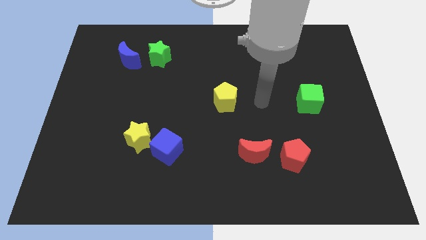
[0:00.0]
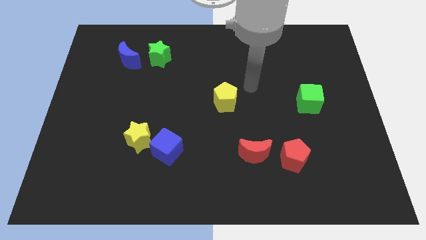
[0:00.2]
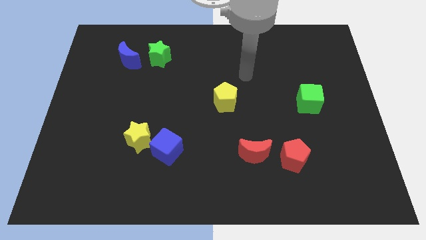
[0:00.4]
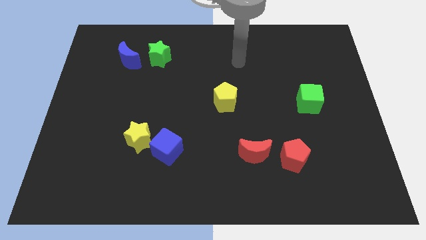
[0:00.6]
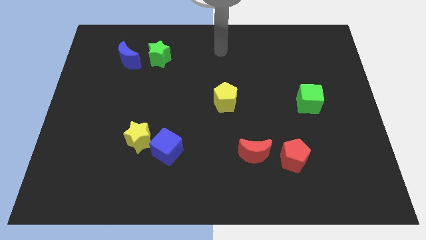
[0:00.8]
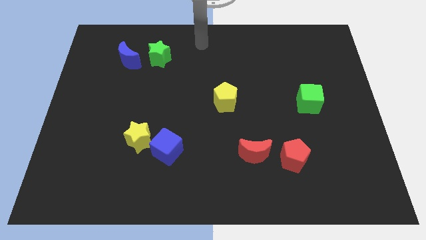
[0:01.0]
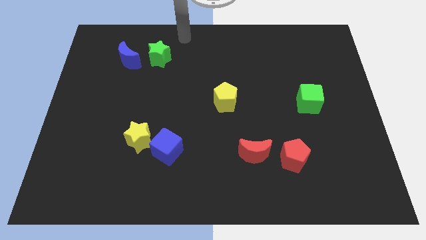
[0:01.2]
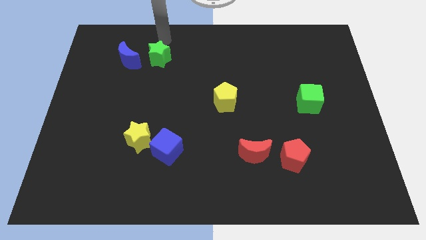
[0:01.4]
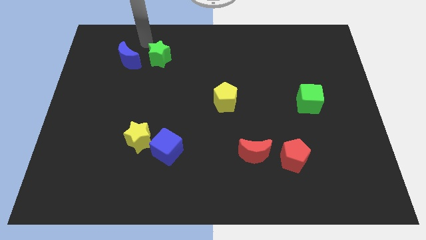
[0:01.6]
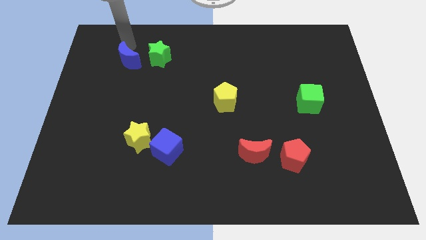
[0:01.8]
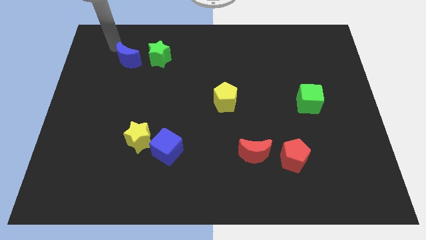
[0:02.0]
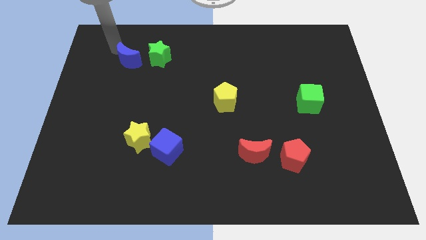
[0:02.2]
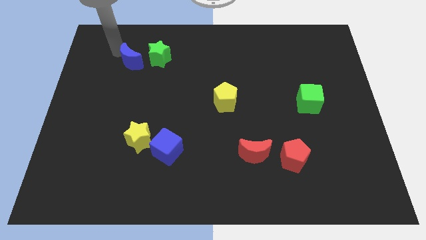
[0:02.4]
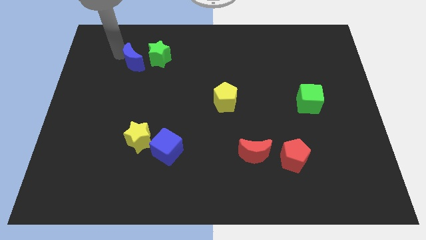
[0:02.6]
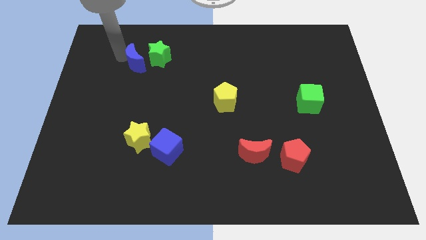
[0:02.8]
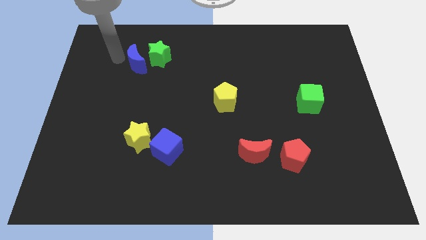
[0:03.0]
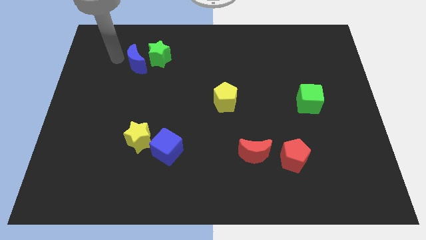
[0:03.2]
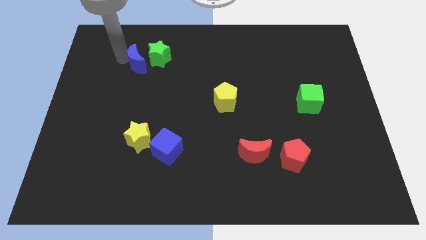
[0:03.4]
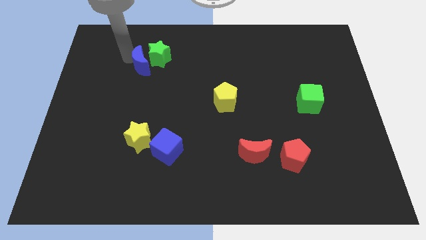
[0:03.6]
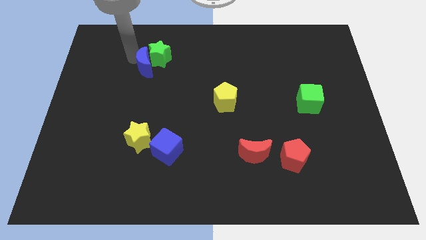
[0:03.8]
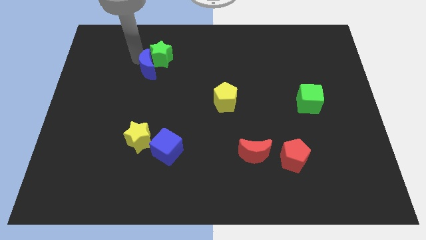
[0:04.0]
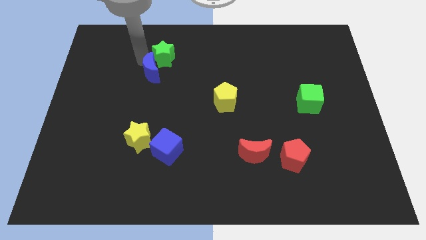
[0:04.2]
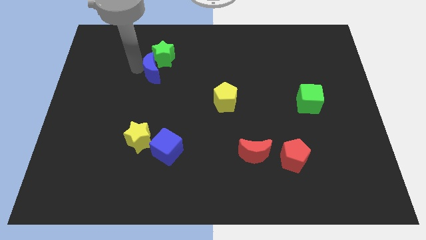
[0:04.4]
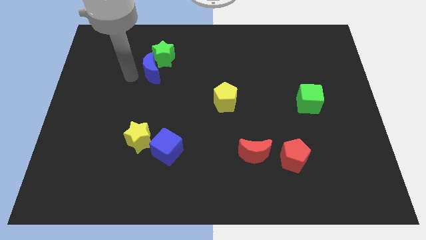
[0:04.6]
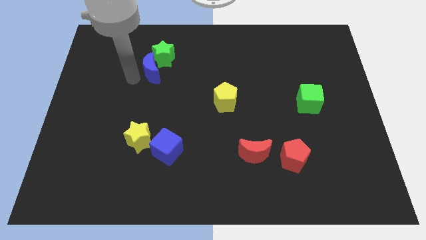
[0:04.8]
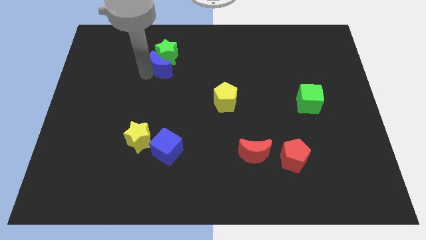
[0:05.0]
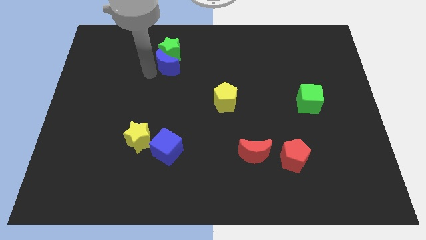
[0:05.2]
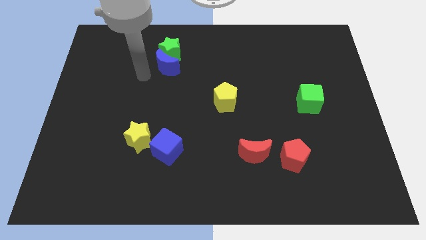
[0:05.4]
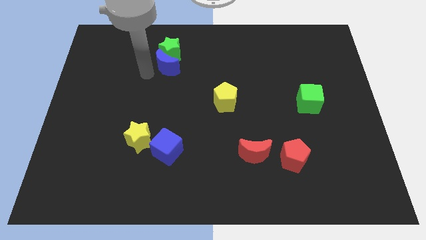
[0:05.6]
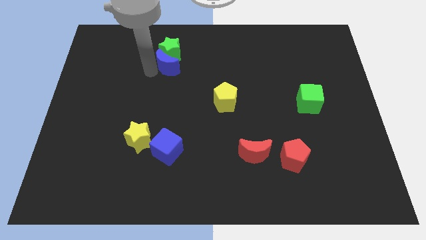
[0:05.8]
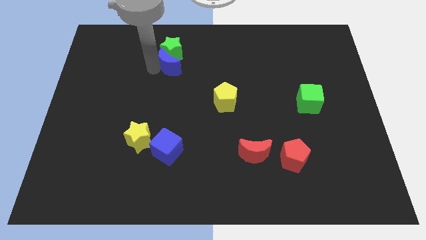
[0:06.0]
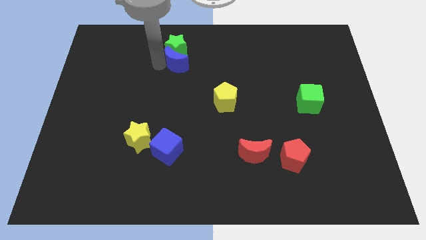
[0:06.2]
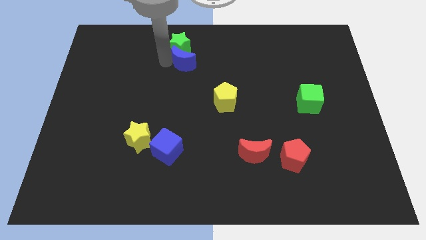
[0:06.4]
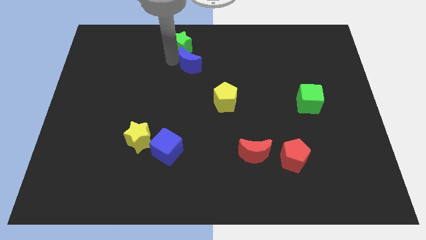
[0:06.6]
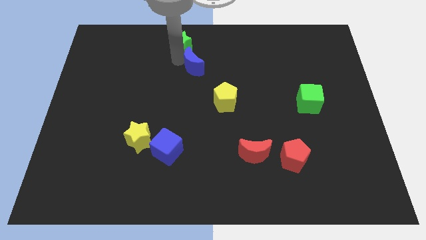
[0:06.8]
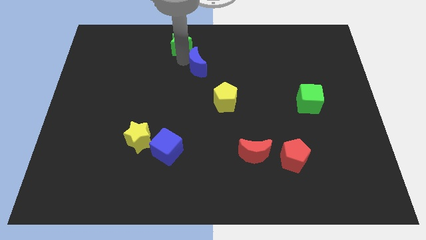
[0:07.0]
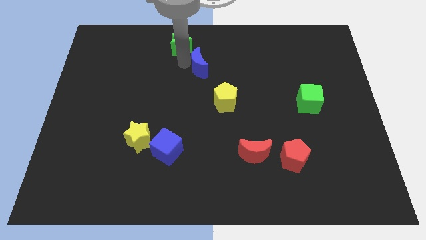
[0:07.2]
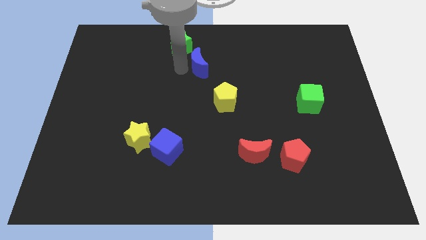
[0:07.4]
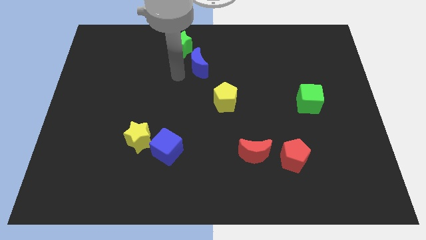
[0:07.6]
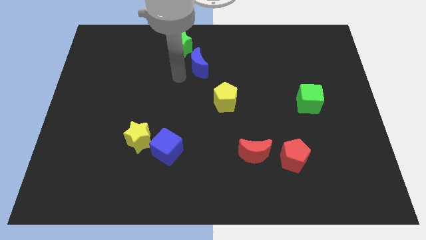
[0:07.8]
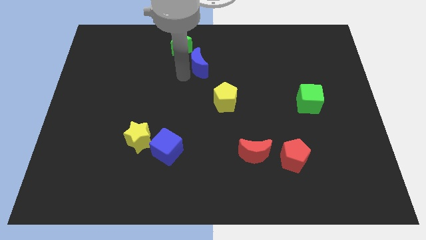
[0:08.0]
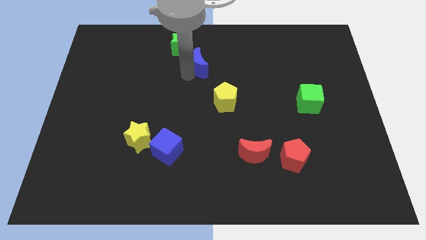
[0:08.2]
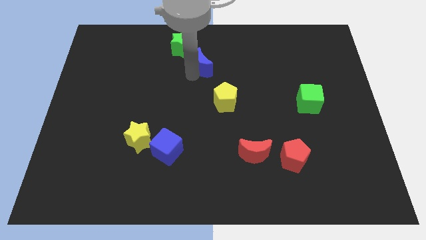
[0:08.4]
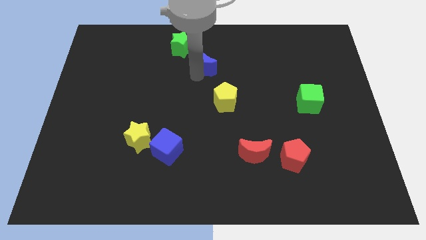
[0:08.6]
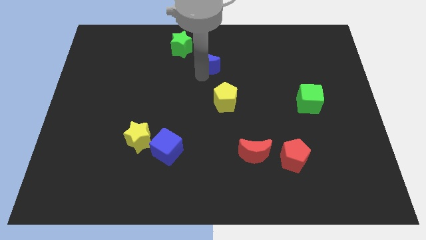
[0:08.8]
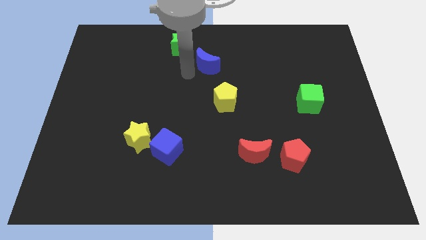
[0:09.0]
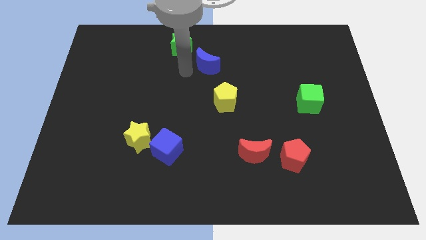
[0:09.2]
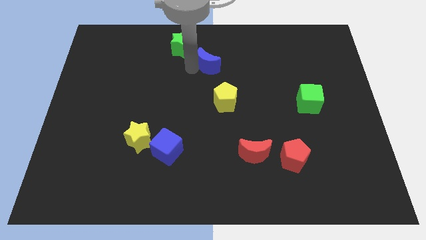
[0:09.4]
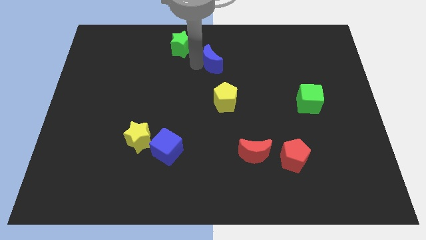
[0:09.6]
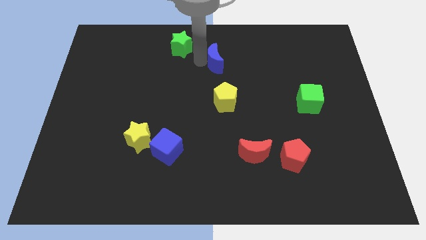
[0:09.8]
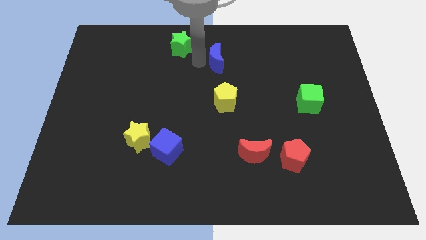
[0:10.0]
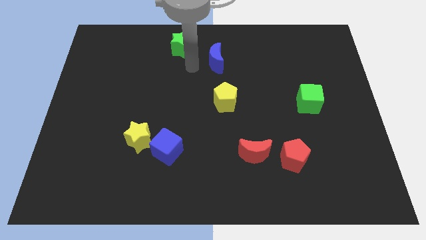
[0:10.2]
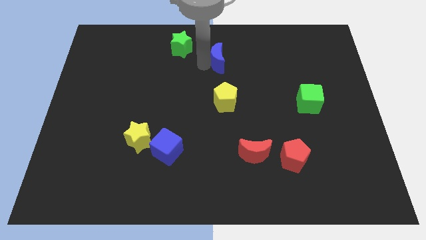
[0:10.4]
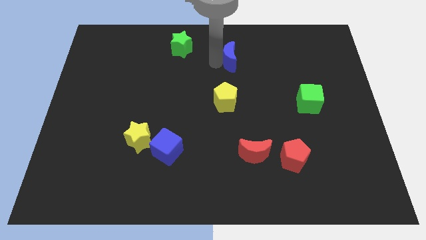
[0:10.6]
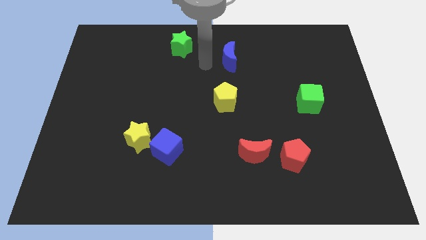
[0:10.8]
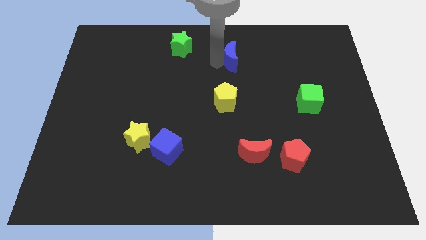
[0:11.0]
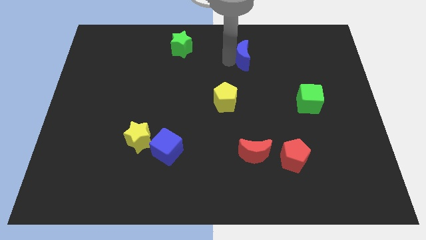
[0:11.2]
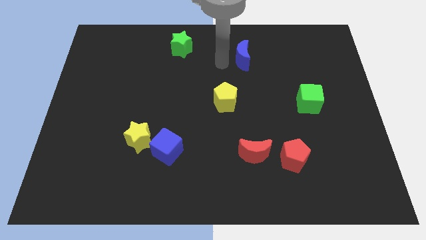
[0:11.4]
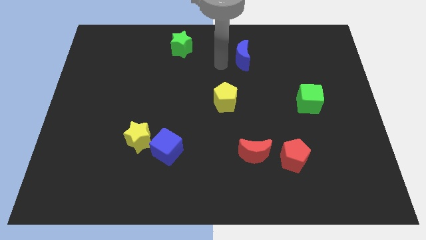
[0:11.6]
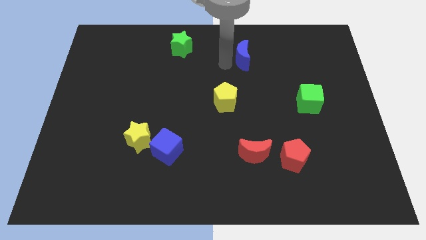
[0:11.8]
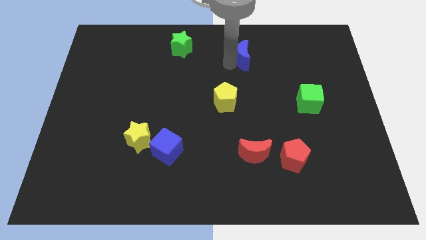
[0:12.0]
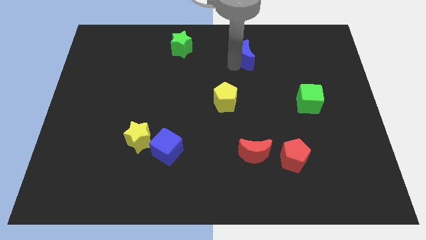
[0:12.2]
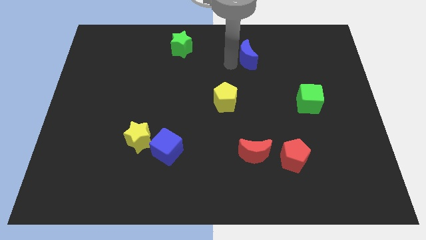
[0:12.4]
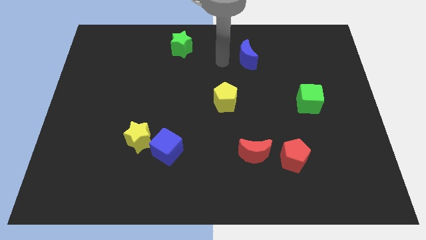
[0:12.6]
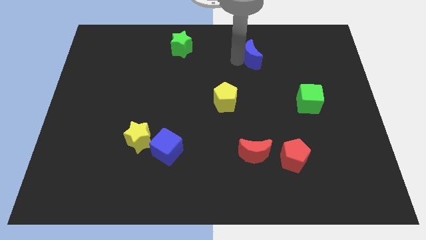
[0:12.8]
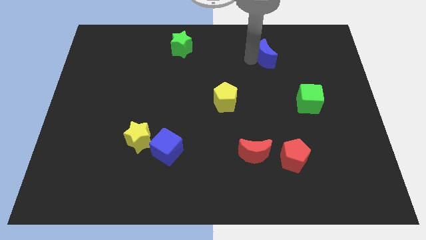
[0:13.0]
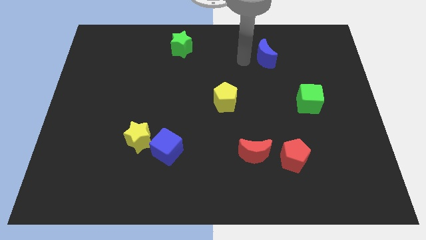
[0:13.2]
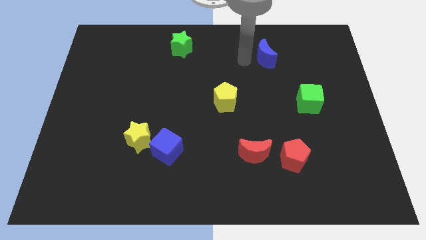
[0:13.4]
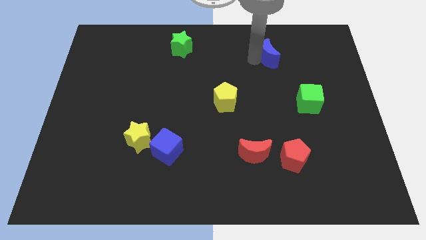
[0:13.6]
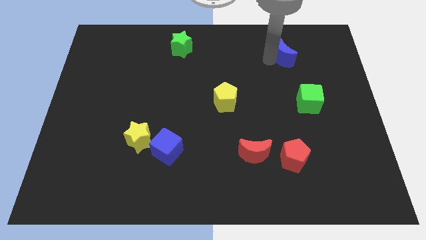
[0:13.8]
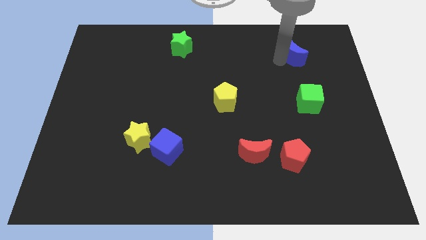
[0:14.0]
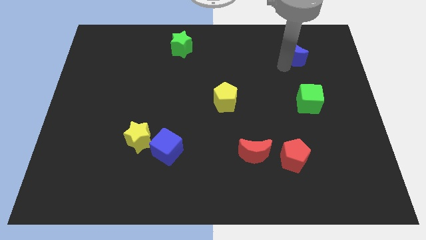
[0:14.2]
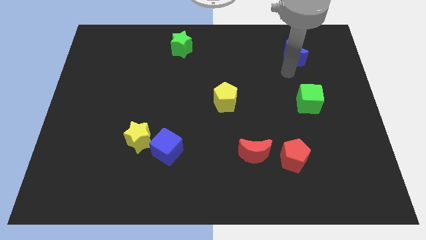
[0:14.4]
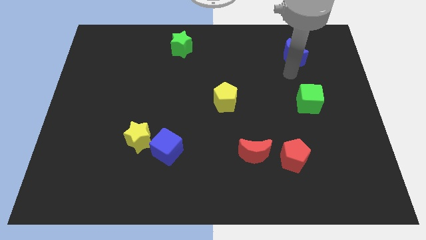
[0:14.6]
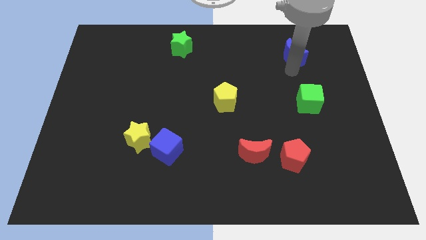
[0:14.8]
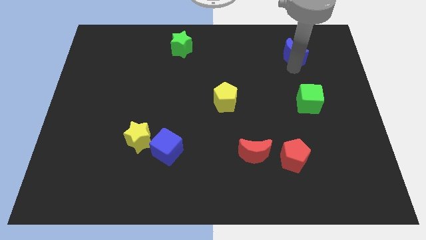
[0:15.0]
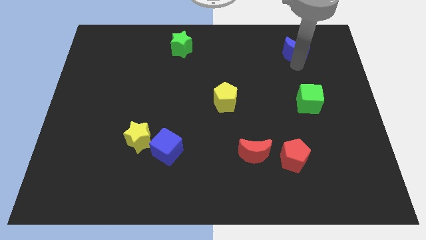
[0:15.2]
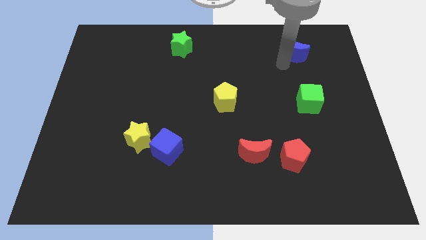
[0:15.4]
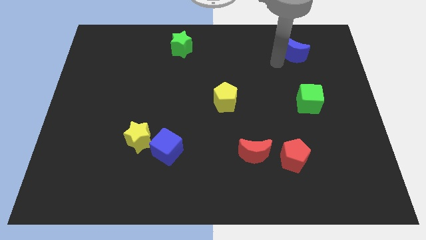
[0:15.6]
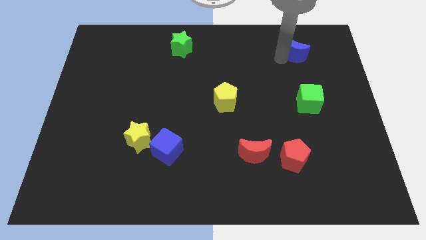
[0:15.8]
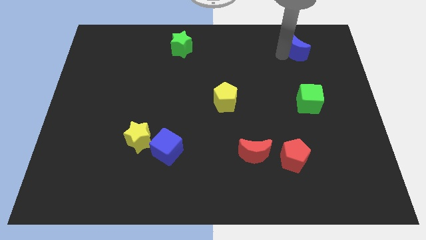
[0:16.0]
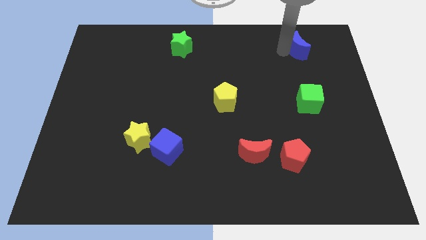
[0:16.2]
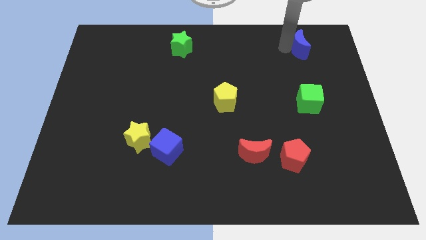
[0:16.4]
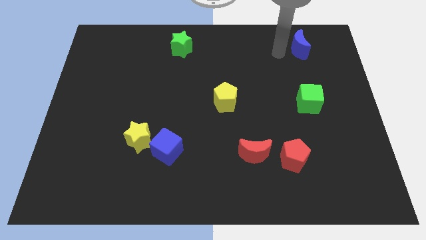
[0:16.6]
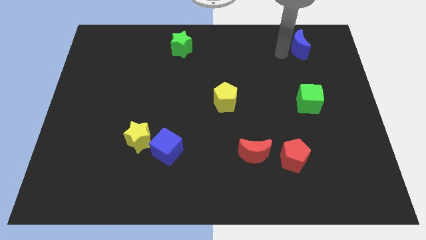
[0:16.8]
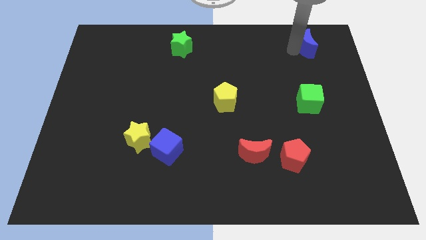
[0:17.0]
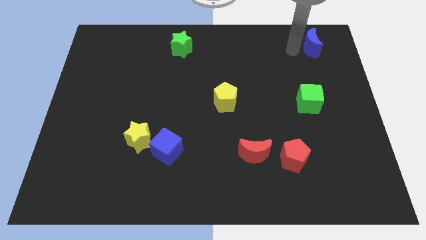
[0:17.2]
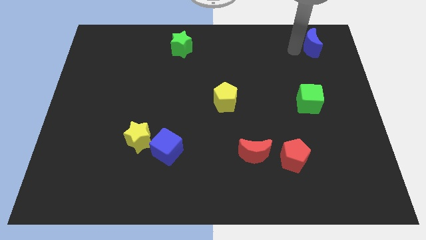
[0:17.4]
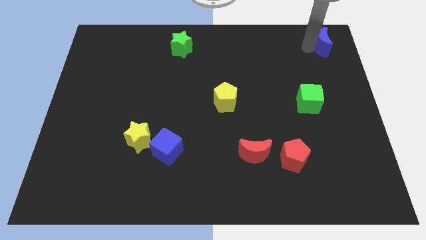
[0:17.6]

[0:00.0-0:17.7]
slide the blue moon to the top right
